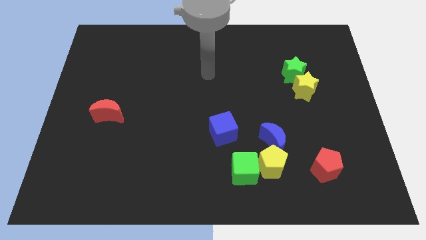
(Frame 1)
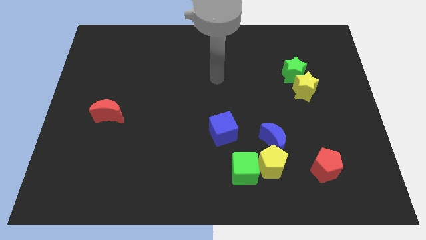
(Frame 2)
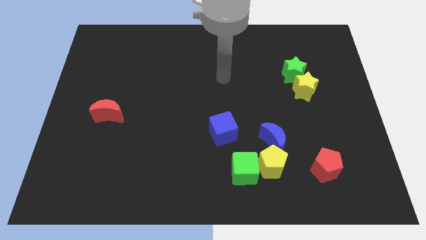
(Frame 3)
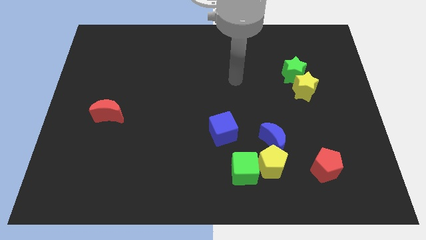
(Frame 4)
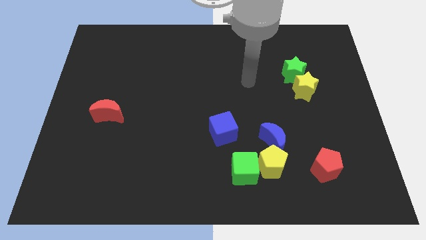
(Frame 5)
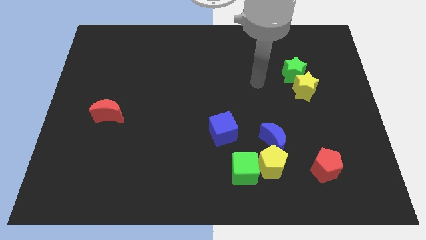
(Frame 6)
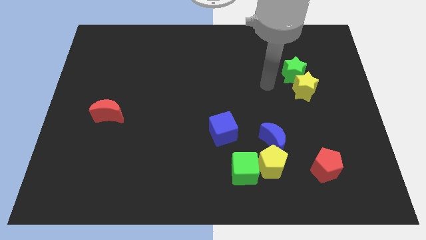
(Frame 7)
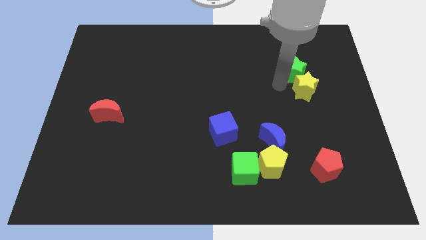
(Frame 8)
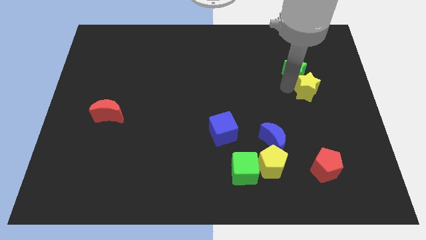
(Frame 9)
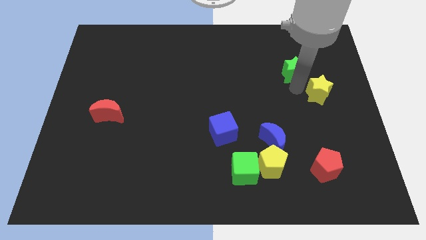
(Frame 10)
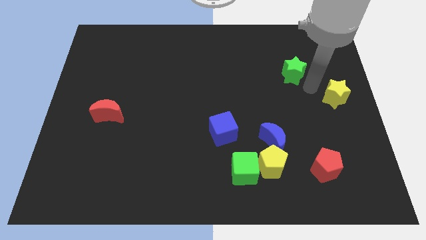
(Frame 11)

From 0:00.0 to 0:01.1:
pull the green star apart from the yellow star

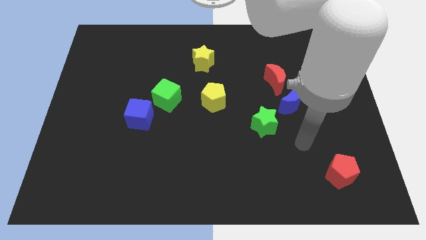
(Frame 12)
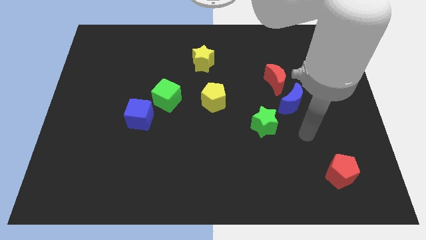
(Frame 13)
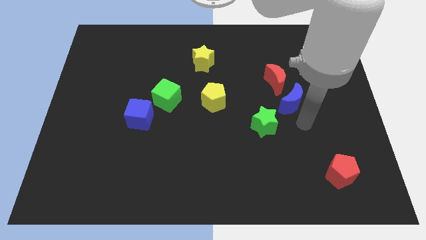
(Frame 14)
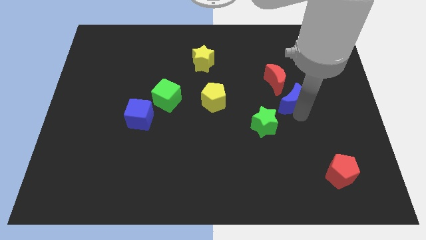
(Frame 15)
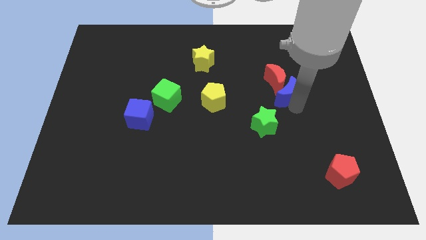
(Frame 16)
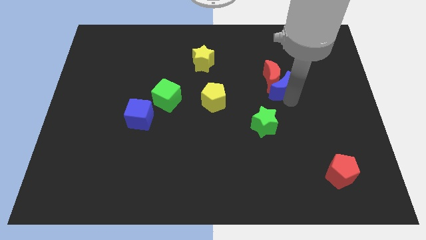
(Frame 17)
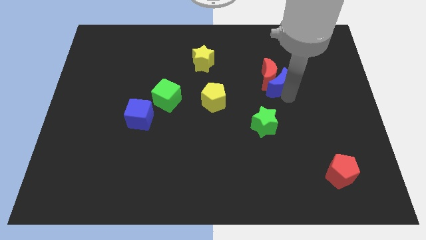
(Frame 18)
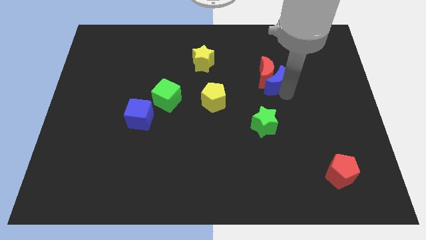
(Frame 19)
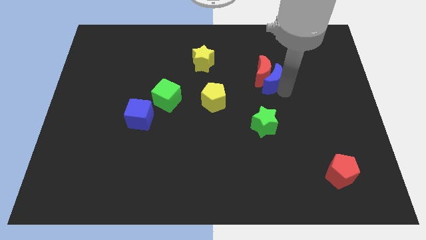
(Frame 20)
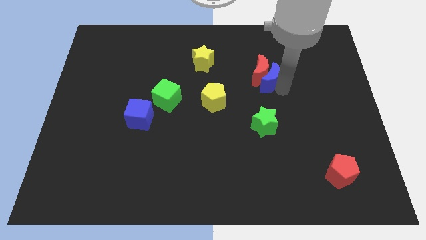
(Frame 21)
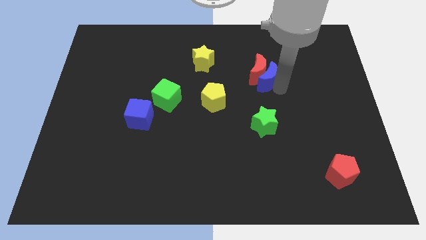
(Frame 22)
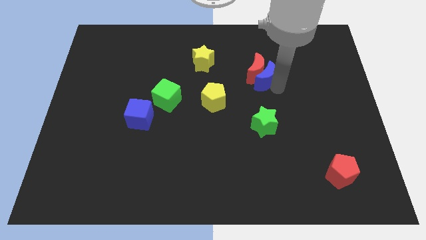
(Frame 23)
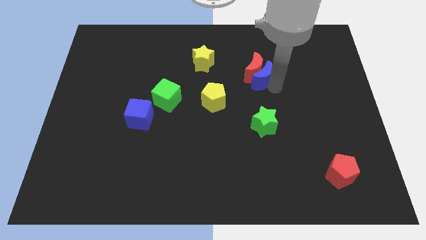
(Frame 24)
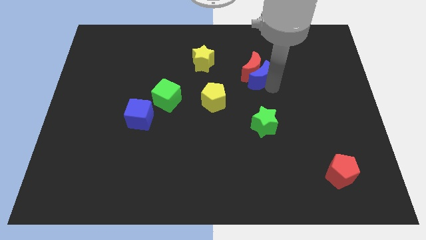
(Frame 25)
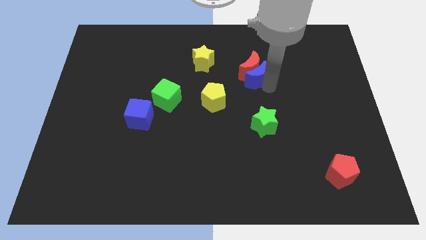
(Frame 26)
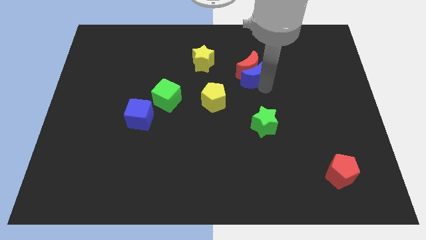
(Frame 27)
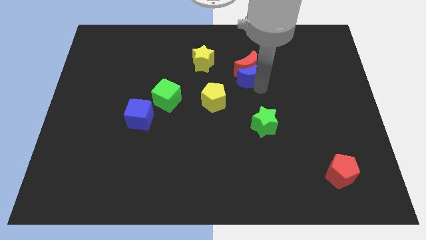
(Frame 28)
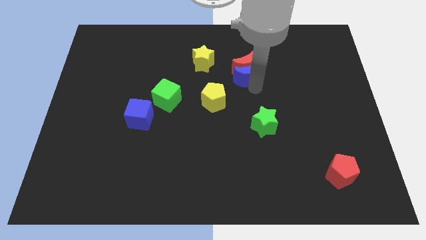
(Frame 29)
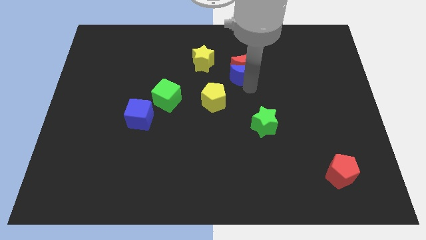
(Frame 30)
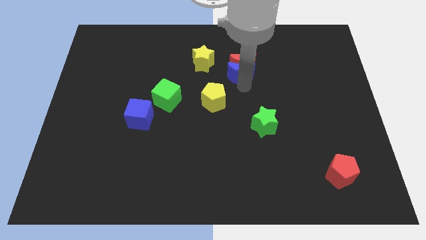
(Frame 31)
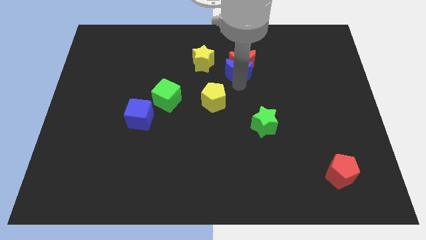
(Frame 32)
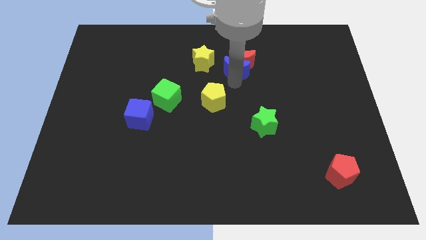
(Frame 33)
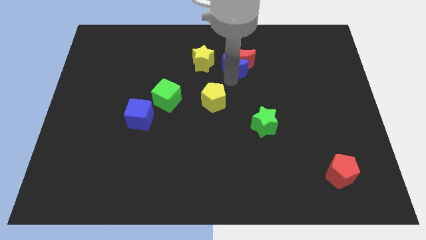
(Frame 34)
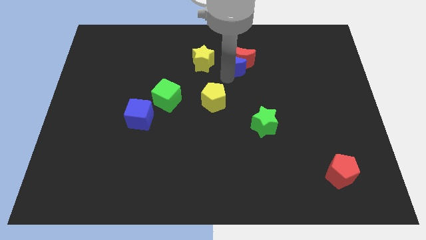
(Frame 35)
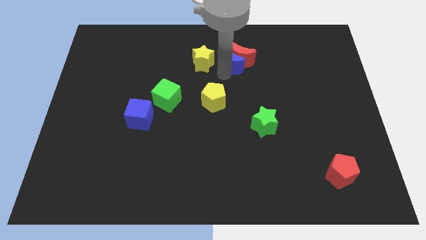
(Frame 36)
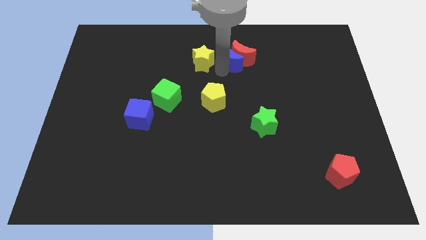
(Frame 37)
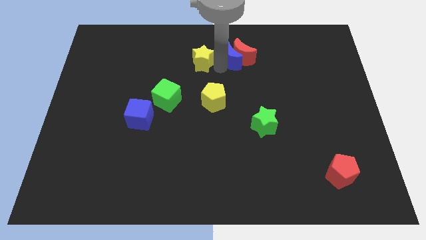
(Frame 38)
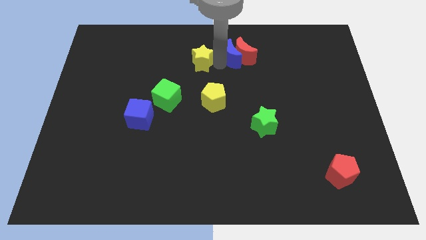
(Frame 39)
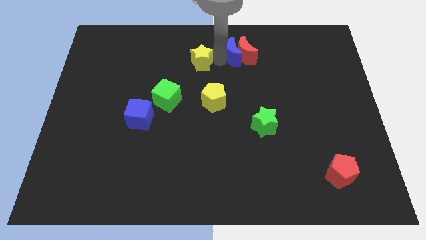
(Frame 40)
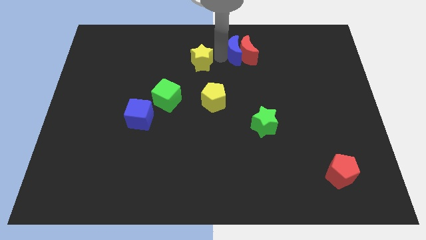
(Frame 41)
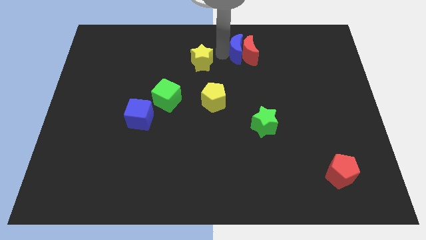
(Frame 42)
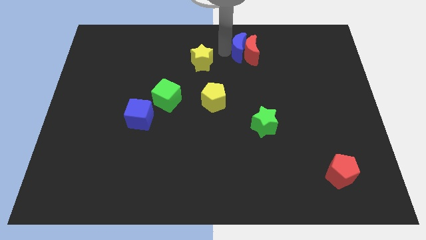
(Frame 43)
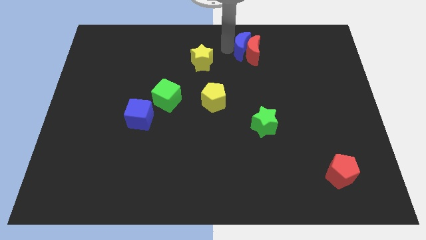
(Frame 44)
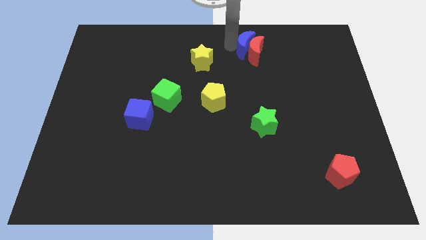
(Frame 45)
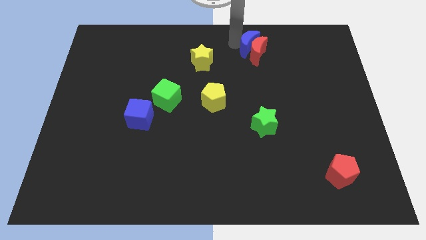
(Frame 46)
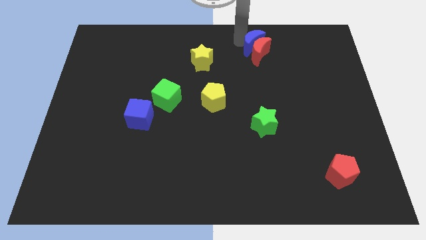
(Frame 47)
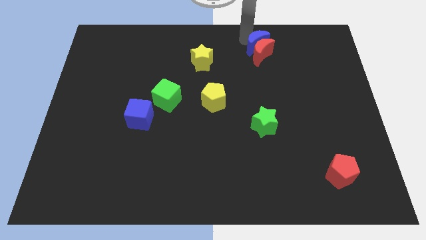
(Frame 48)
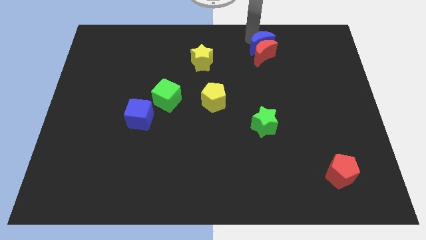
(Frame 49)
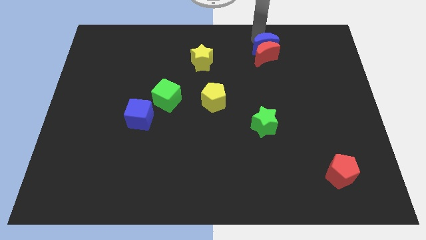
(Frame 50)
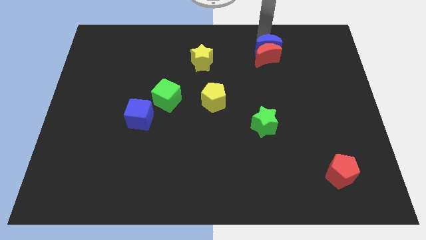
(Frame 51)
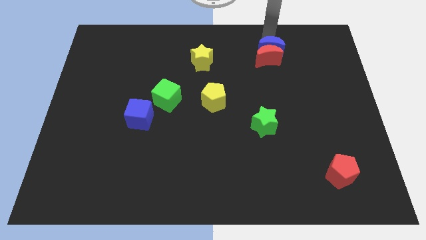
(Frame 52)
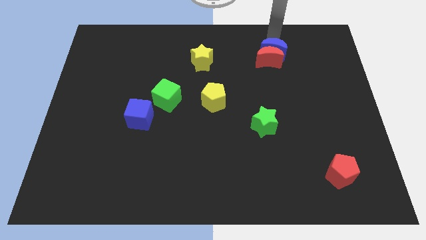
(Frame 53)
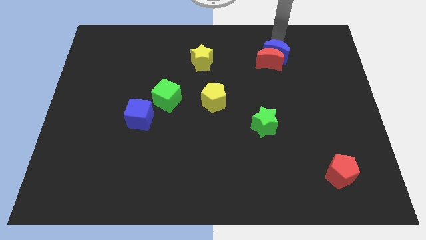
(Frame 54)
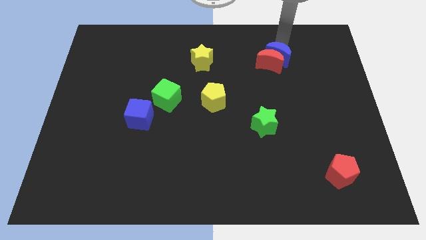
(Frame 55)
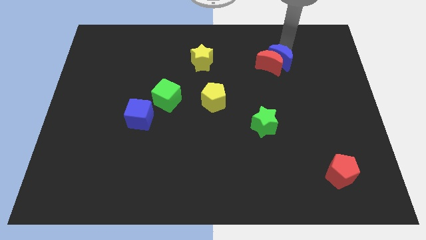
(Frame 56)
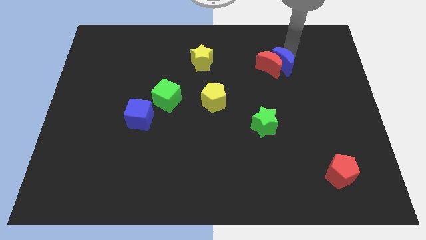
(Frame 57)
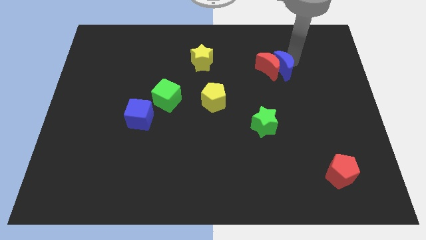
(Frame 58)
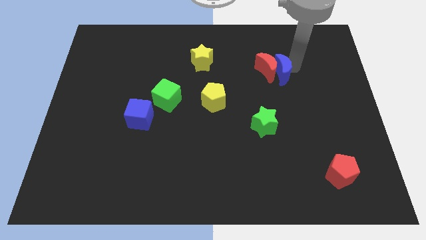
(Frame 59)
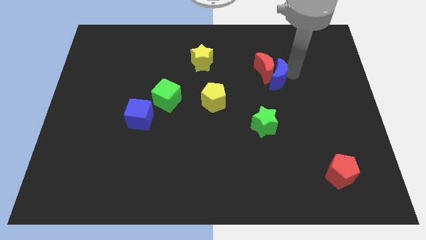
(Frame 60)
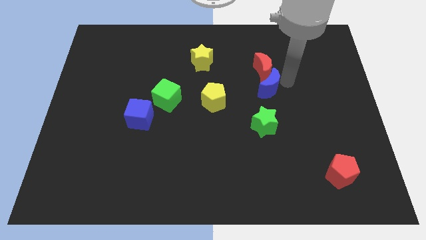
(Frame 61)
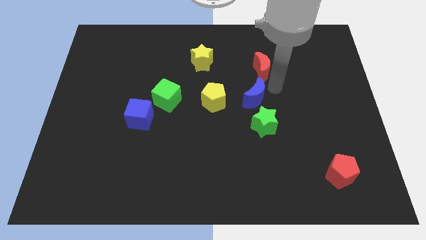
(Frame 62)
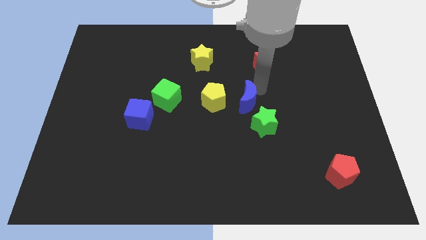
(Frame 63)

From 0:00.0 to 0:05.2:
pull the red moon apart from the blue moon

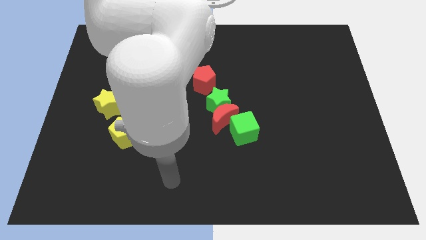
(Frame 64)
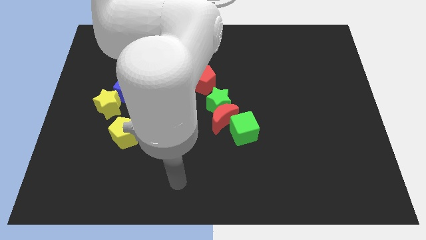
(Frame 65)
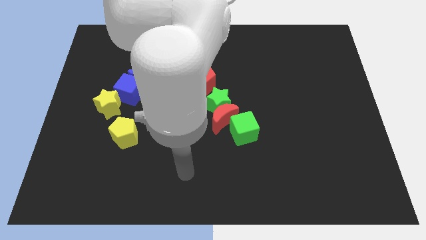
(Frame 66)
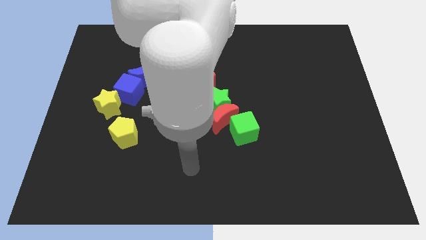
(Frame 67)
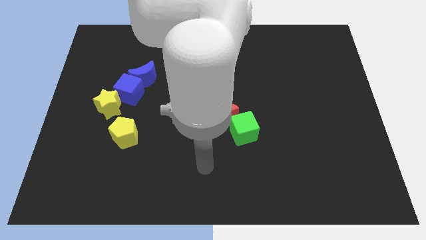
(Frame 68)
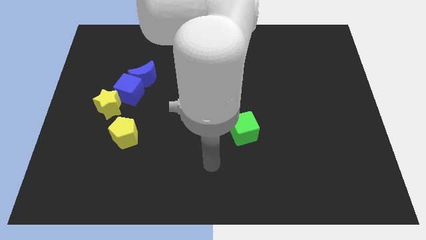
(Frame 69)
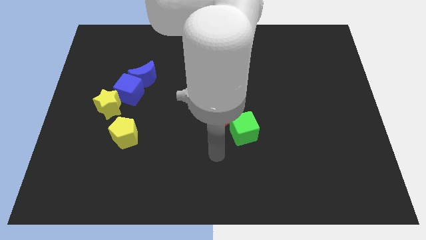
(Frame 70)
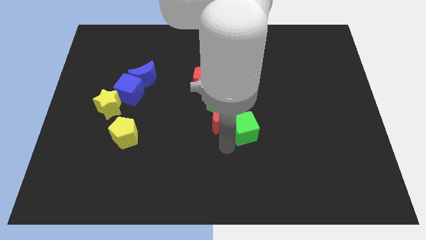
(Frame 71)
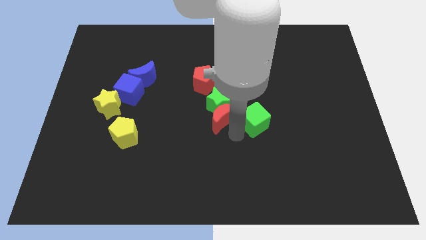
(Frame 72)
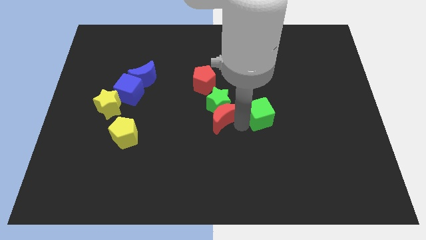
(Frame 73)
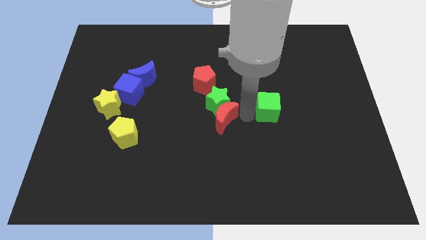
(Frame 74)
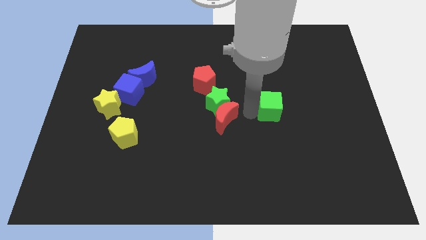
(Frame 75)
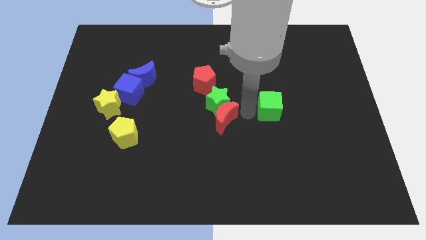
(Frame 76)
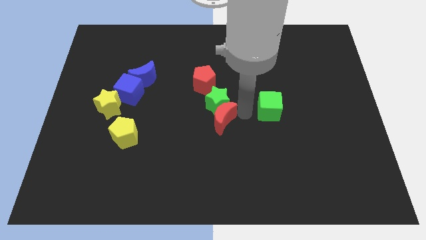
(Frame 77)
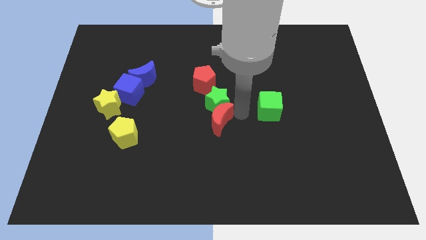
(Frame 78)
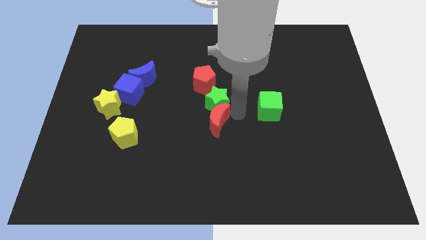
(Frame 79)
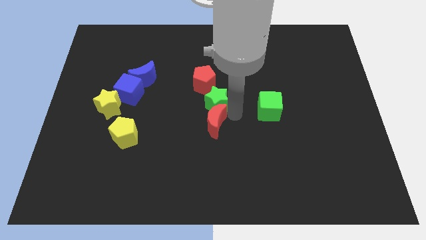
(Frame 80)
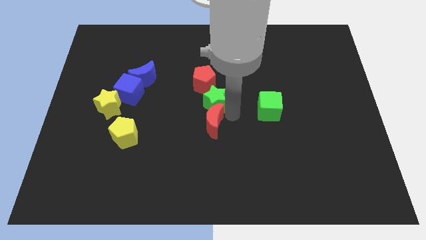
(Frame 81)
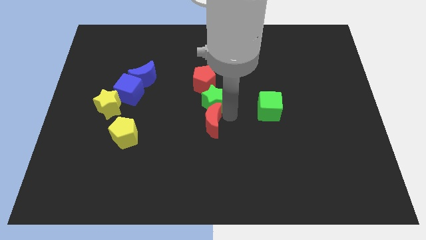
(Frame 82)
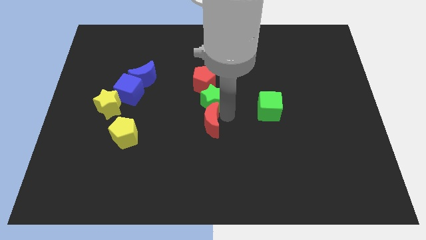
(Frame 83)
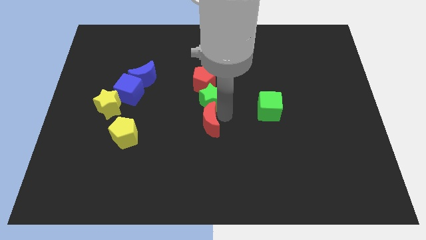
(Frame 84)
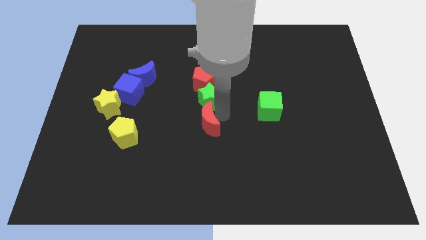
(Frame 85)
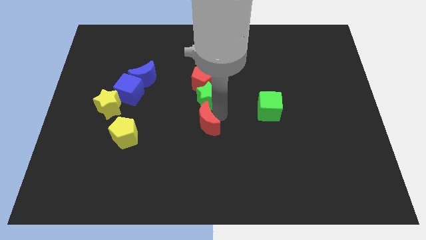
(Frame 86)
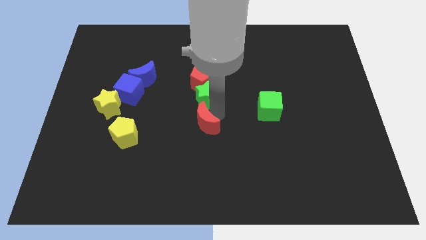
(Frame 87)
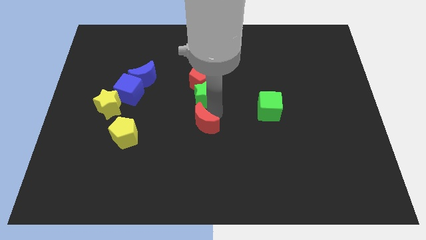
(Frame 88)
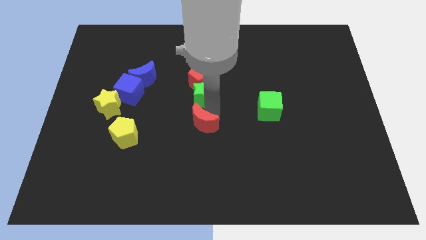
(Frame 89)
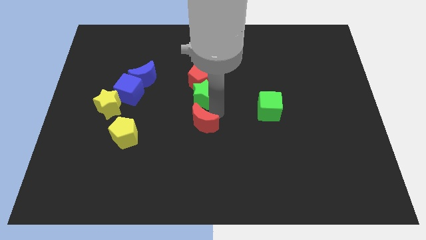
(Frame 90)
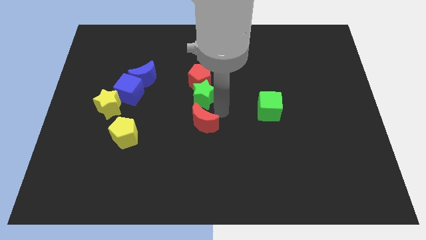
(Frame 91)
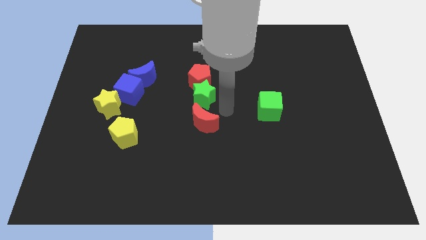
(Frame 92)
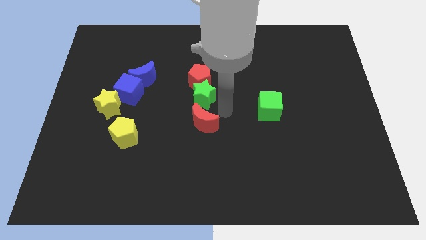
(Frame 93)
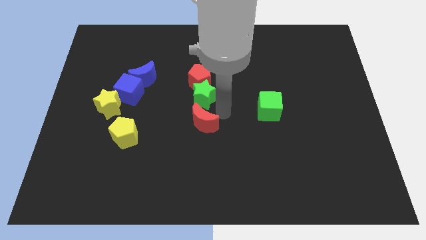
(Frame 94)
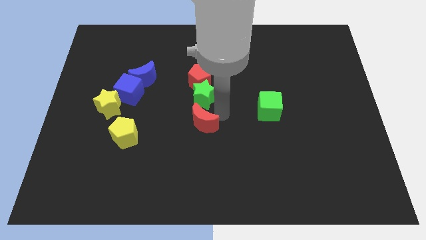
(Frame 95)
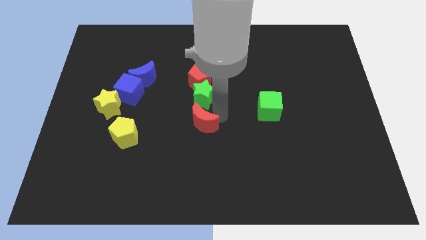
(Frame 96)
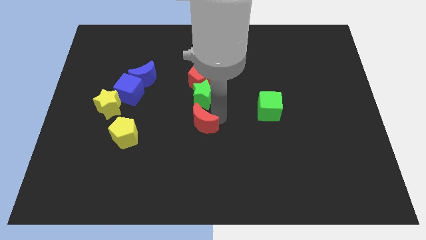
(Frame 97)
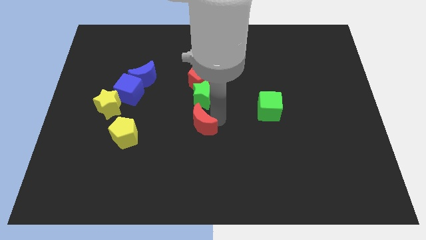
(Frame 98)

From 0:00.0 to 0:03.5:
move the red moon away from the green star and green cube
